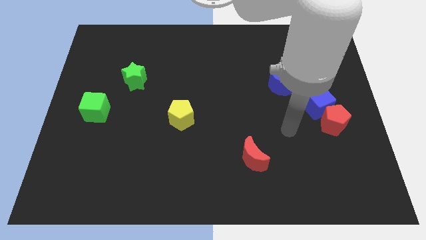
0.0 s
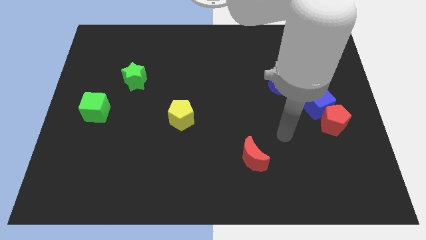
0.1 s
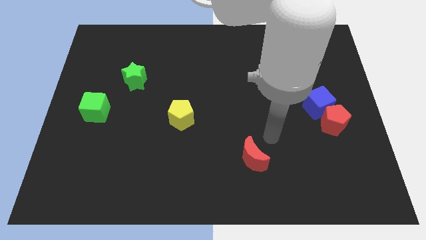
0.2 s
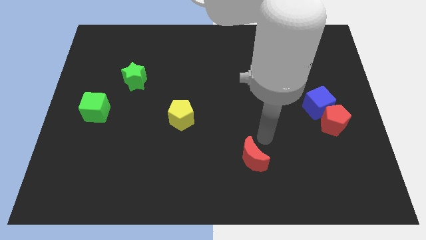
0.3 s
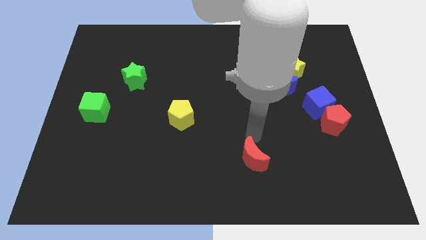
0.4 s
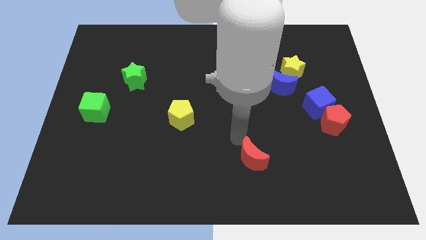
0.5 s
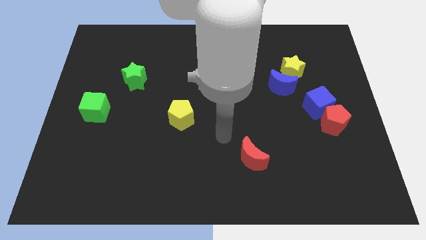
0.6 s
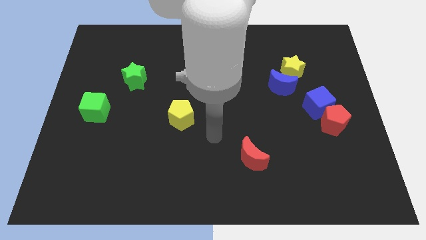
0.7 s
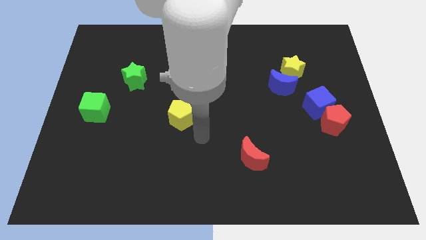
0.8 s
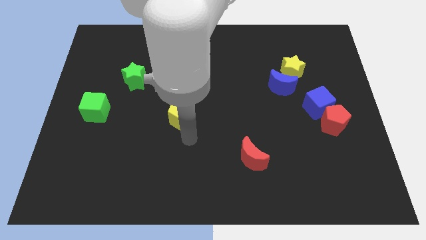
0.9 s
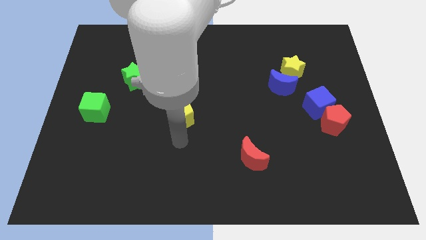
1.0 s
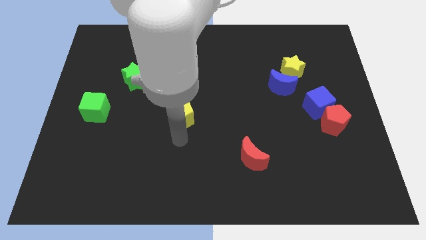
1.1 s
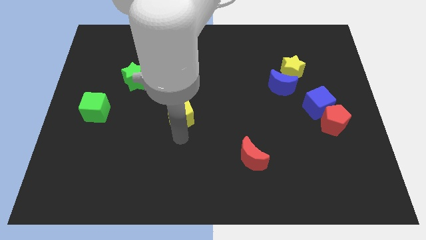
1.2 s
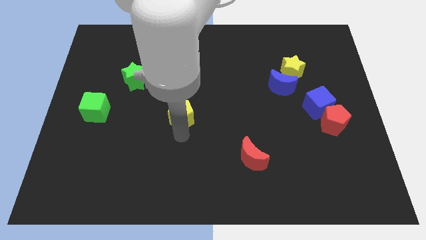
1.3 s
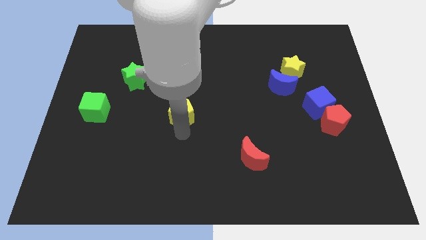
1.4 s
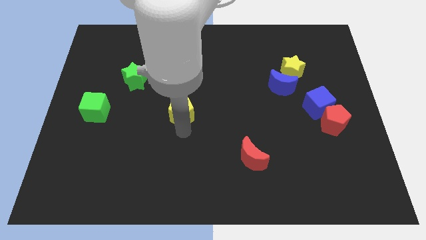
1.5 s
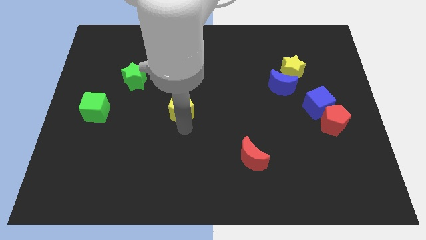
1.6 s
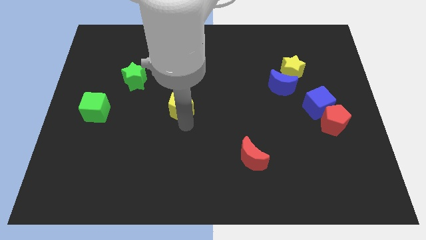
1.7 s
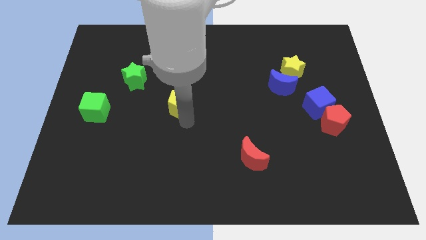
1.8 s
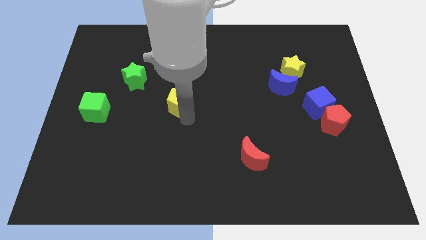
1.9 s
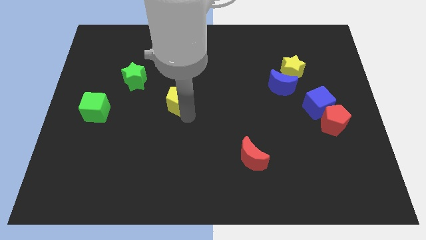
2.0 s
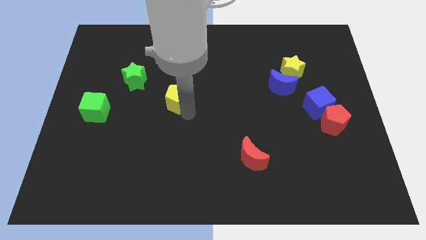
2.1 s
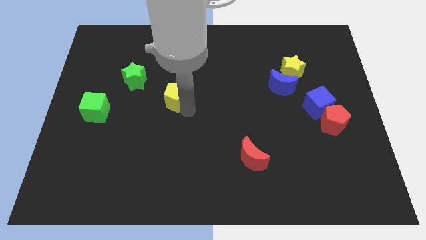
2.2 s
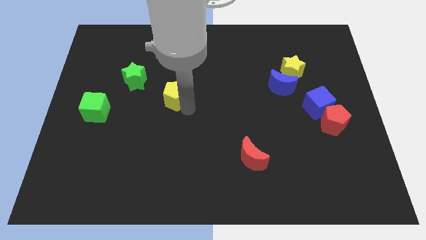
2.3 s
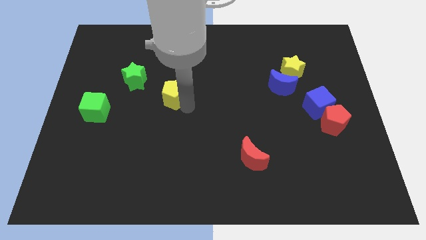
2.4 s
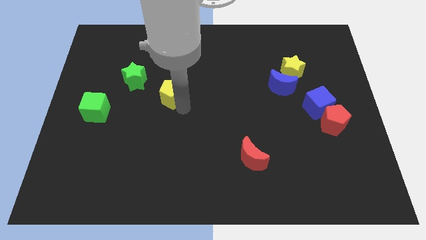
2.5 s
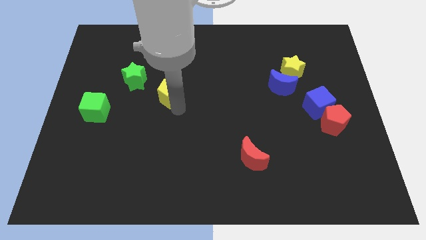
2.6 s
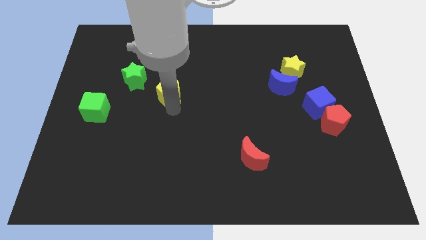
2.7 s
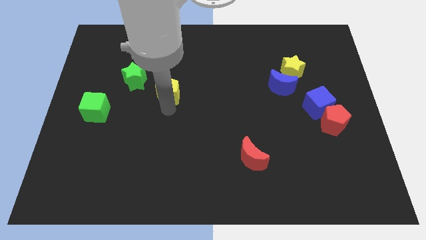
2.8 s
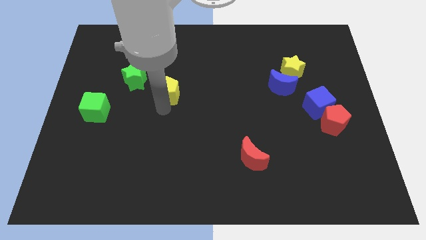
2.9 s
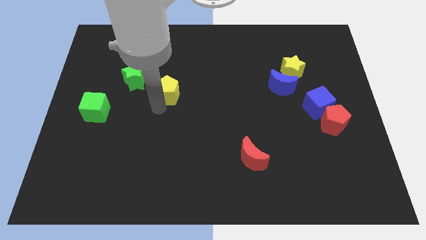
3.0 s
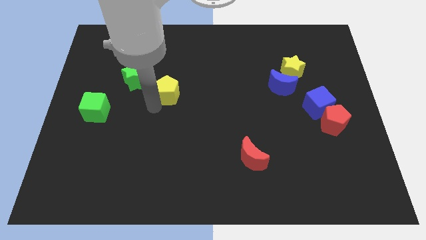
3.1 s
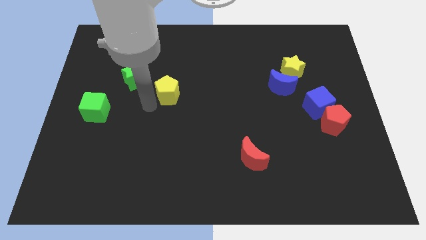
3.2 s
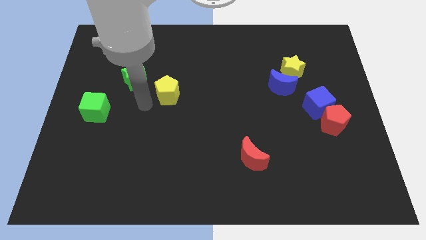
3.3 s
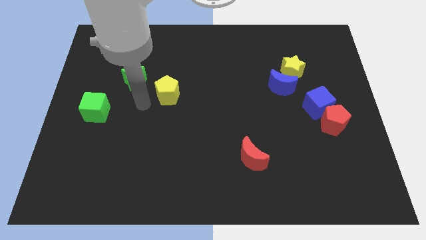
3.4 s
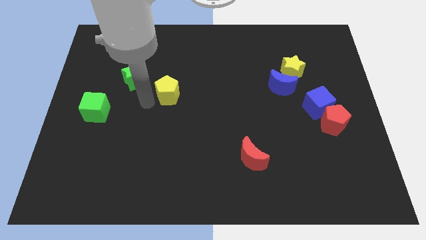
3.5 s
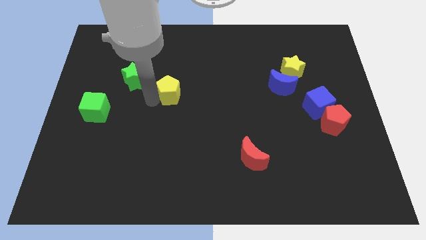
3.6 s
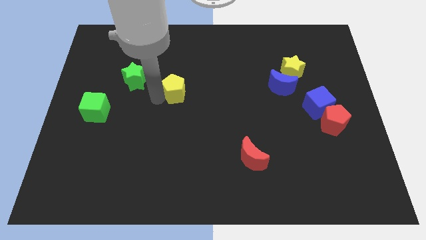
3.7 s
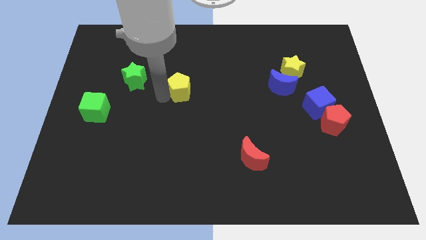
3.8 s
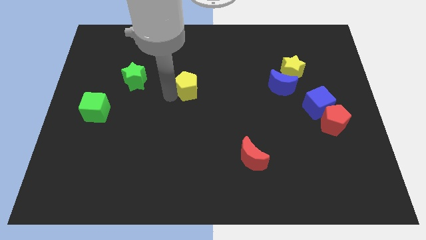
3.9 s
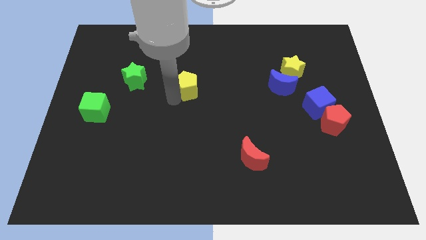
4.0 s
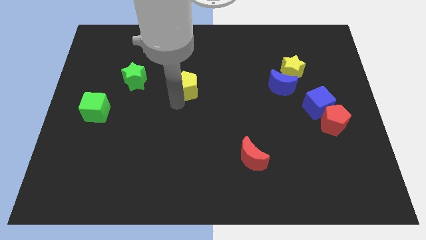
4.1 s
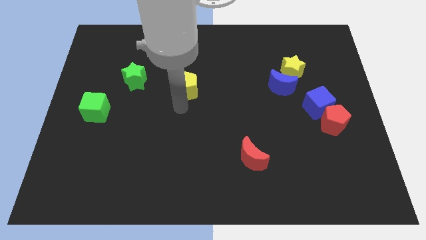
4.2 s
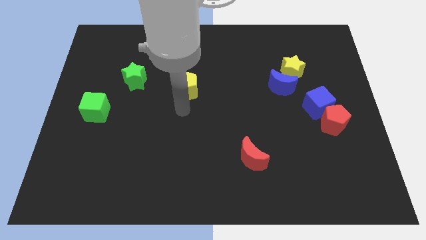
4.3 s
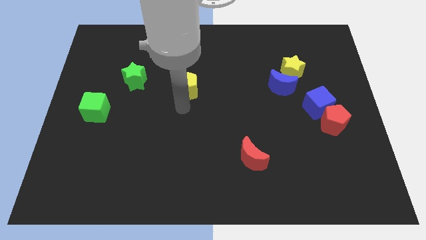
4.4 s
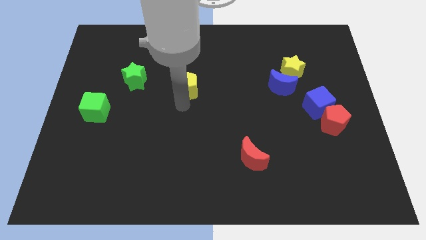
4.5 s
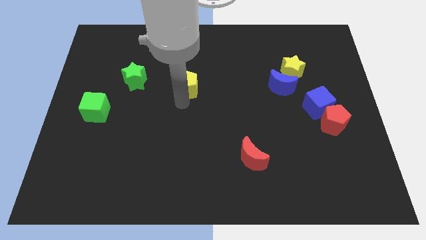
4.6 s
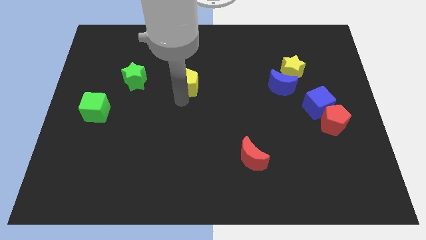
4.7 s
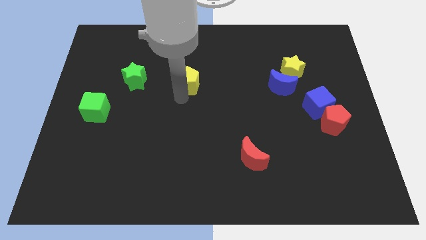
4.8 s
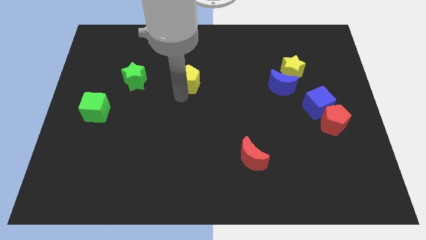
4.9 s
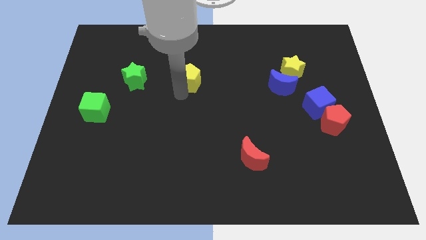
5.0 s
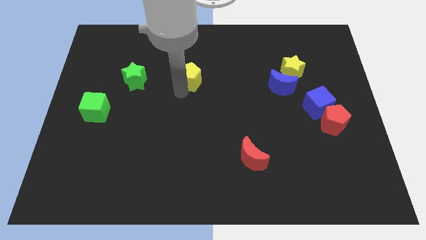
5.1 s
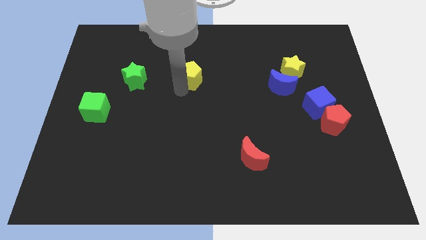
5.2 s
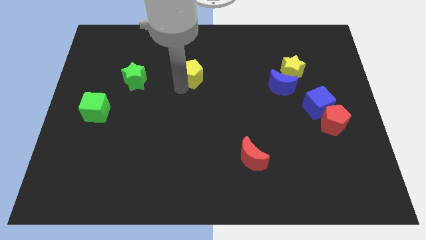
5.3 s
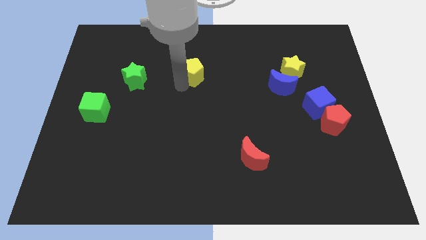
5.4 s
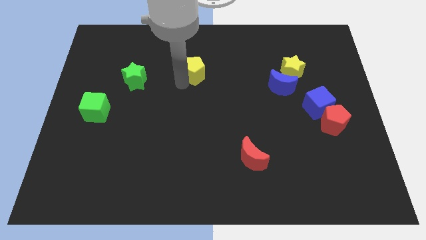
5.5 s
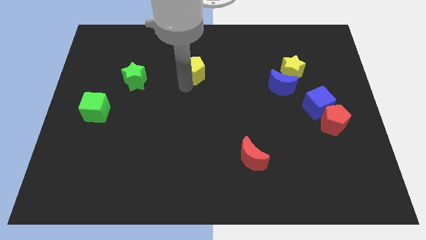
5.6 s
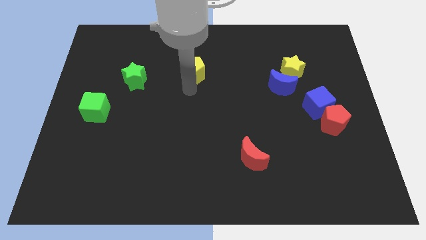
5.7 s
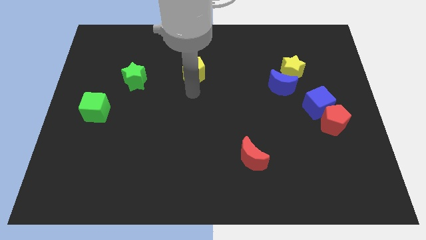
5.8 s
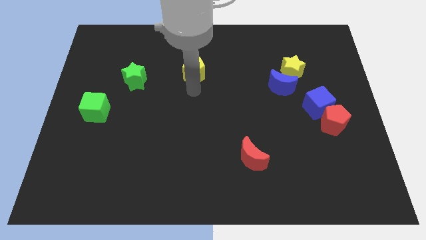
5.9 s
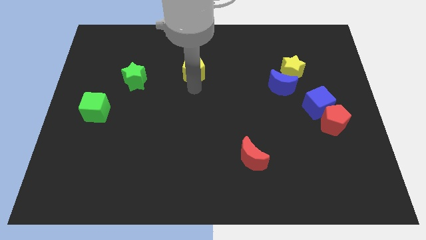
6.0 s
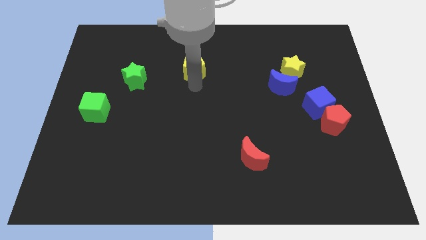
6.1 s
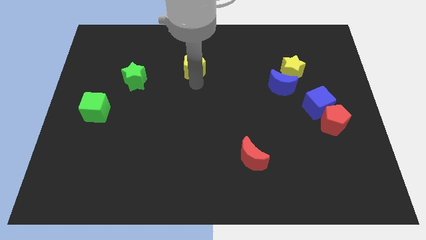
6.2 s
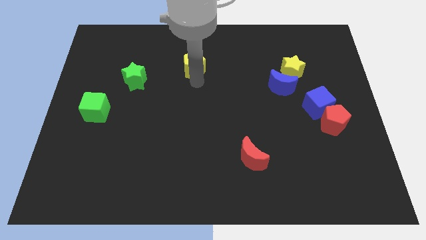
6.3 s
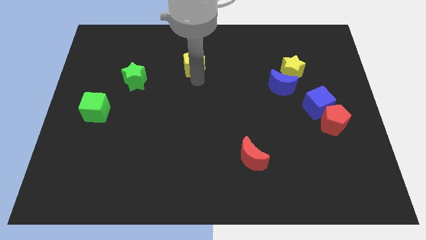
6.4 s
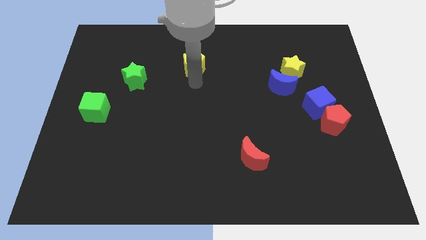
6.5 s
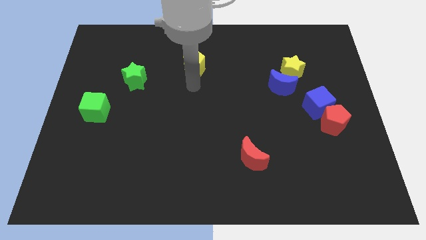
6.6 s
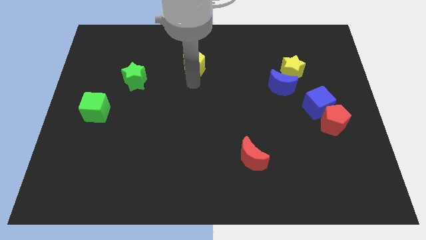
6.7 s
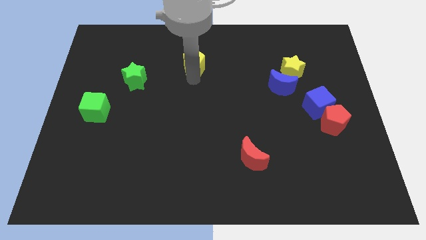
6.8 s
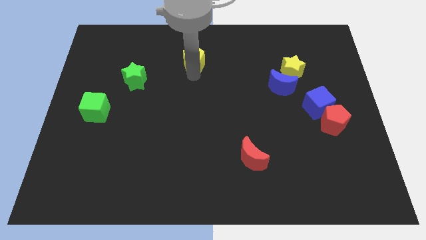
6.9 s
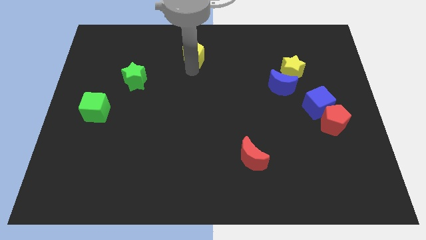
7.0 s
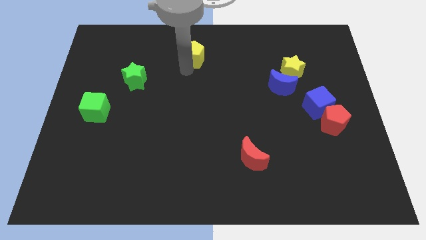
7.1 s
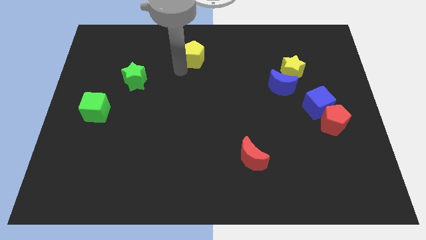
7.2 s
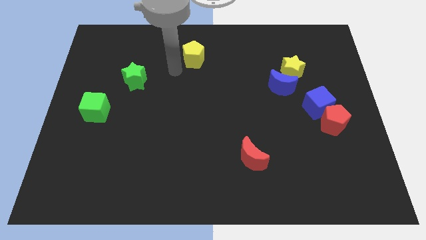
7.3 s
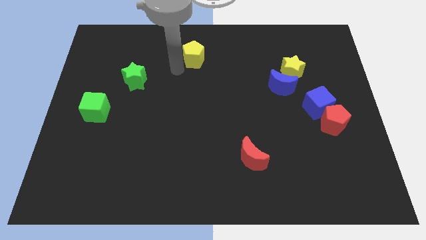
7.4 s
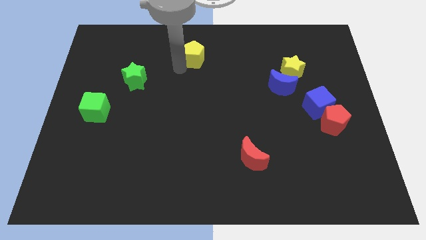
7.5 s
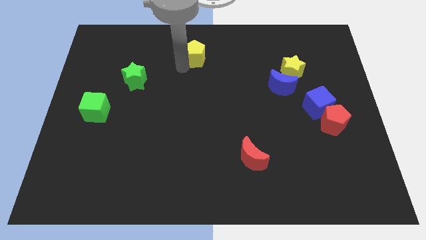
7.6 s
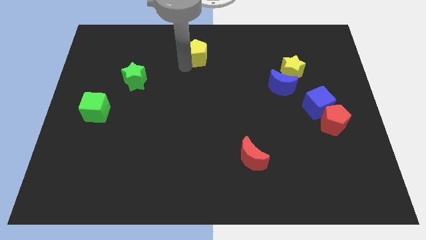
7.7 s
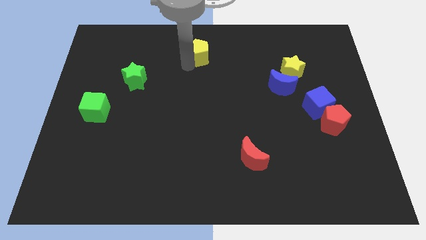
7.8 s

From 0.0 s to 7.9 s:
slide the yellow pentagon to the top side
